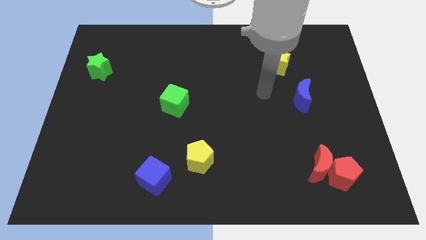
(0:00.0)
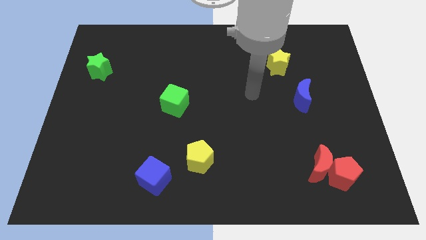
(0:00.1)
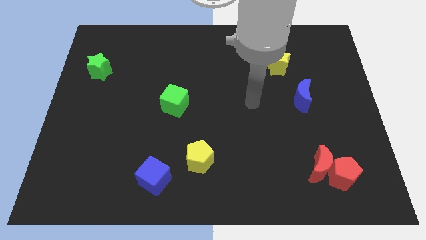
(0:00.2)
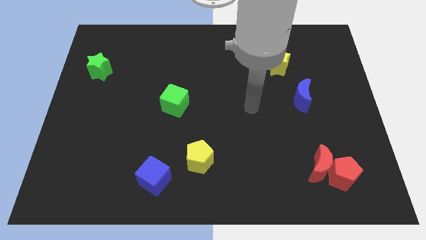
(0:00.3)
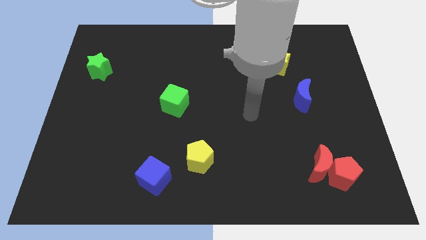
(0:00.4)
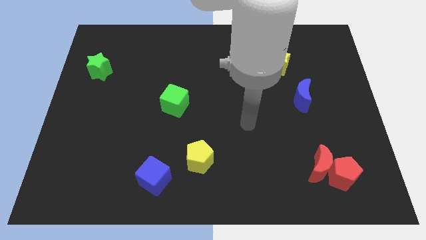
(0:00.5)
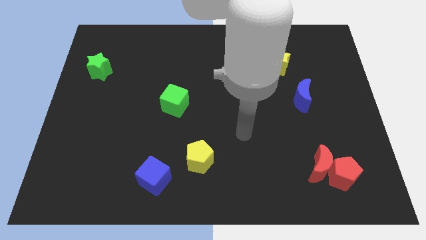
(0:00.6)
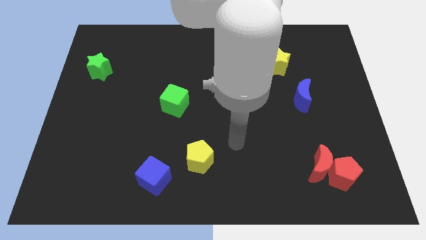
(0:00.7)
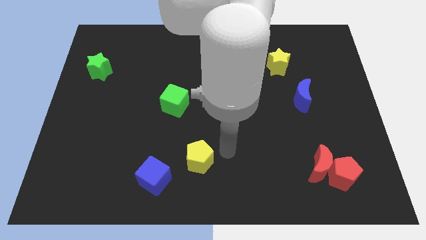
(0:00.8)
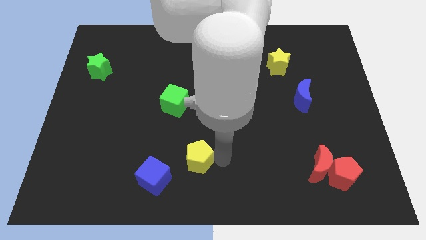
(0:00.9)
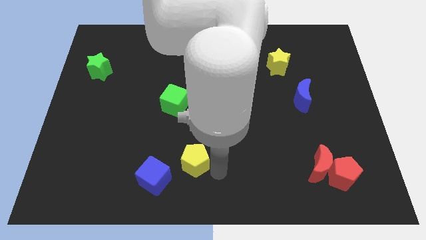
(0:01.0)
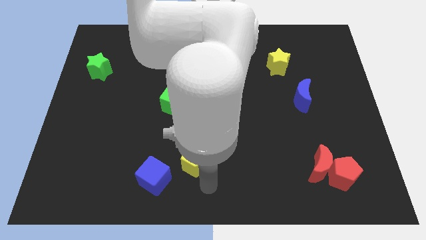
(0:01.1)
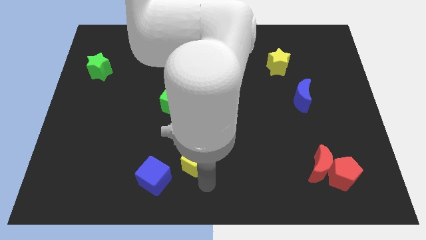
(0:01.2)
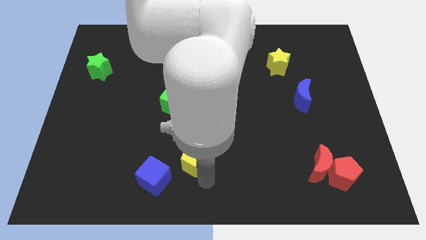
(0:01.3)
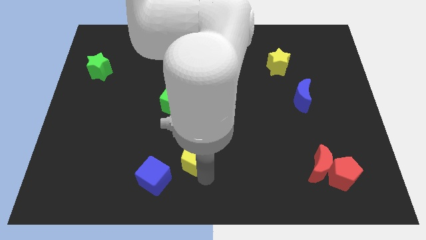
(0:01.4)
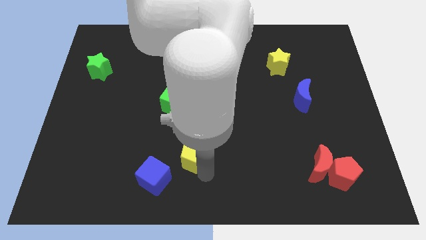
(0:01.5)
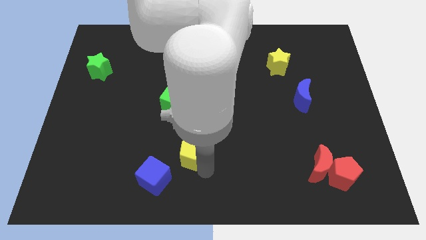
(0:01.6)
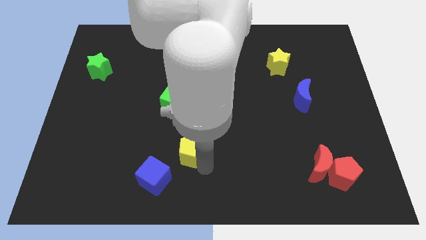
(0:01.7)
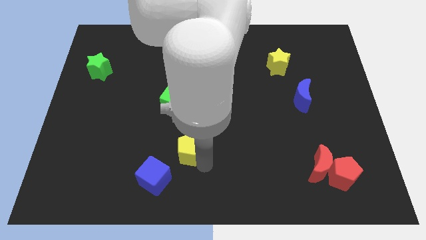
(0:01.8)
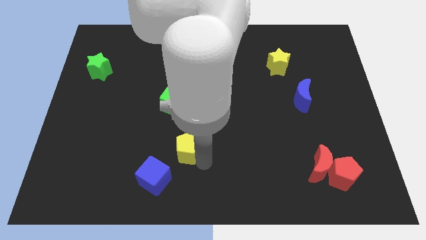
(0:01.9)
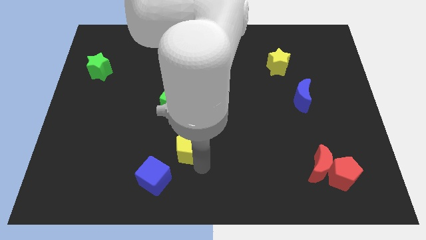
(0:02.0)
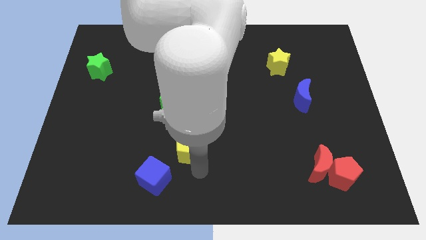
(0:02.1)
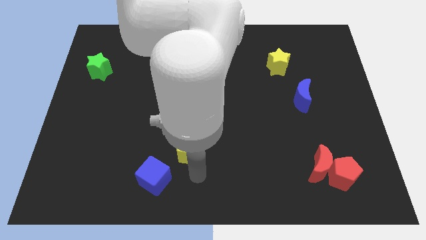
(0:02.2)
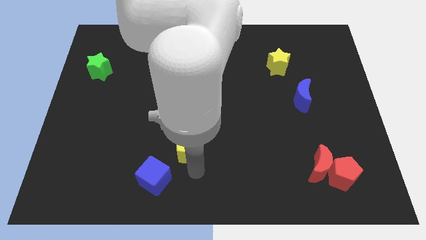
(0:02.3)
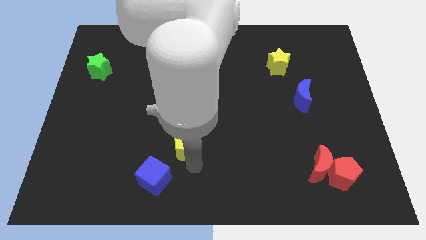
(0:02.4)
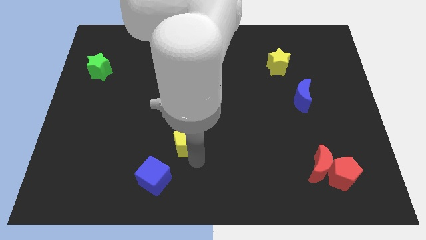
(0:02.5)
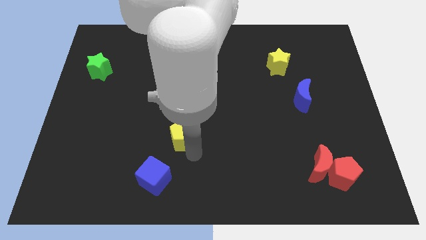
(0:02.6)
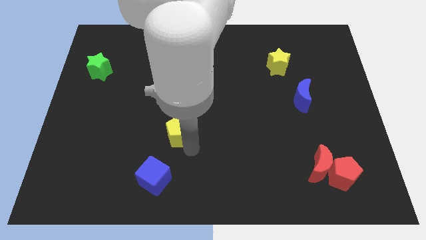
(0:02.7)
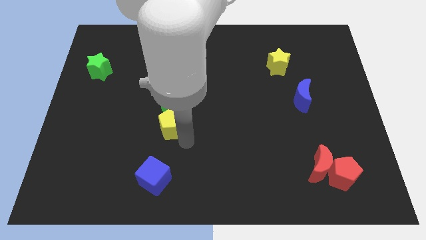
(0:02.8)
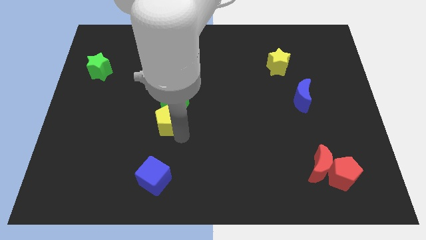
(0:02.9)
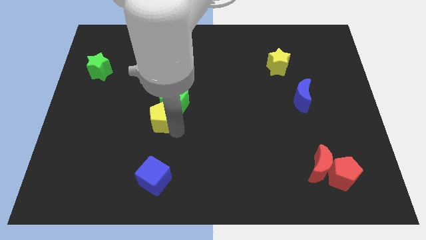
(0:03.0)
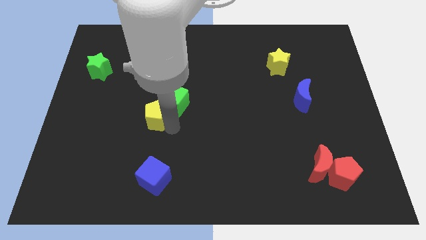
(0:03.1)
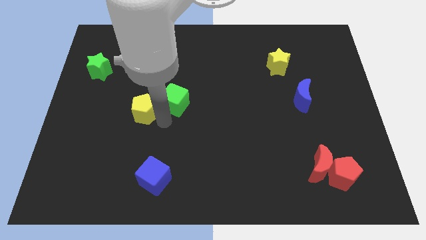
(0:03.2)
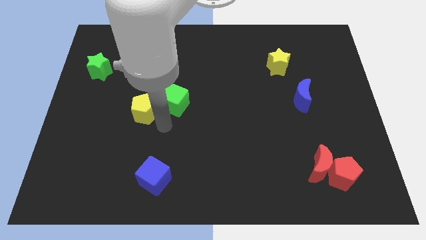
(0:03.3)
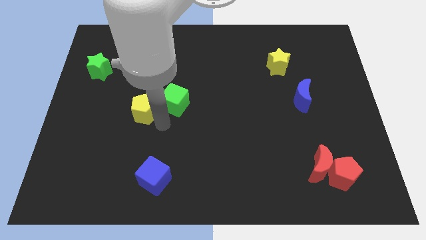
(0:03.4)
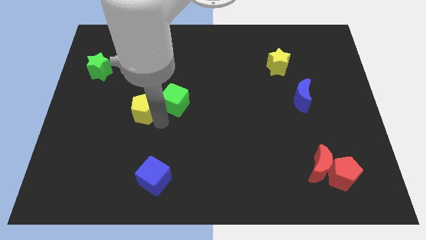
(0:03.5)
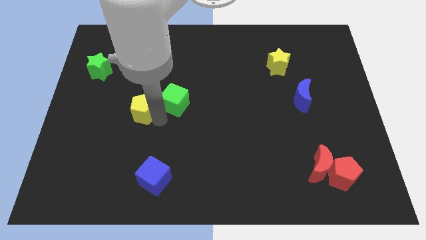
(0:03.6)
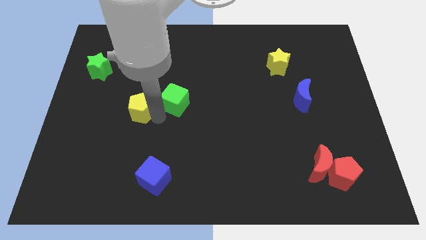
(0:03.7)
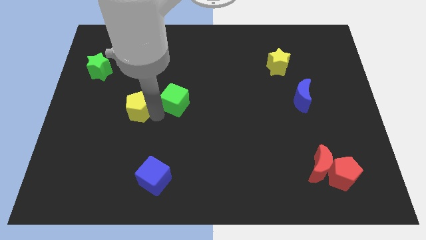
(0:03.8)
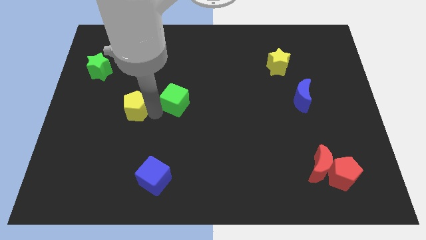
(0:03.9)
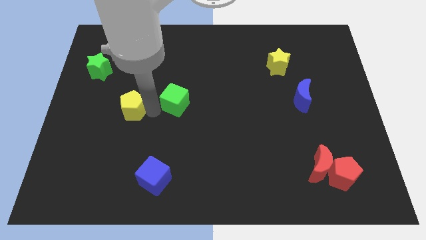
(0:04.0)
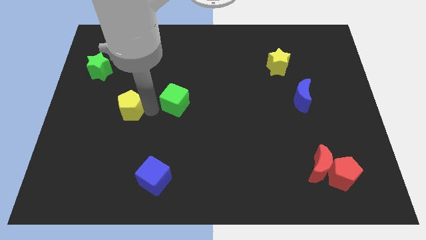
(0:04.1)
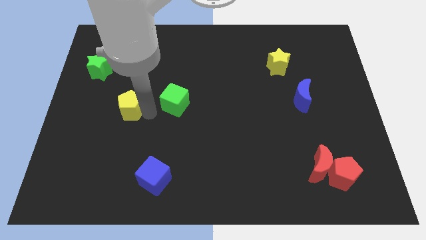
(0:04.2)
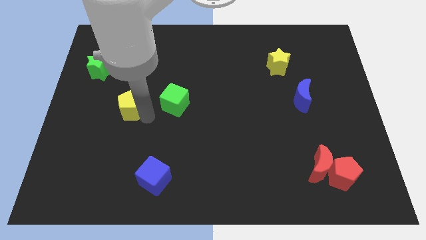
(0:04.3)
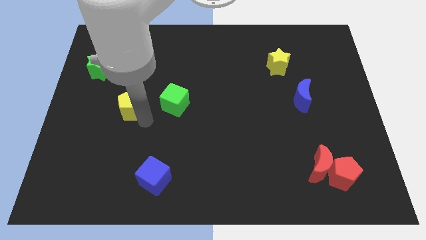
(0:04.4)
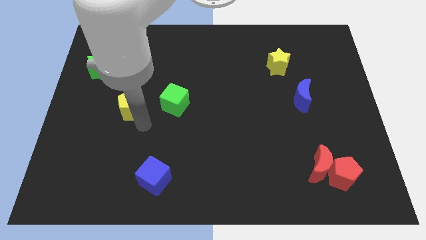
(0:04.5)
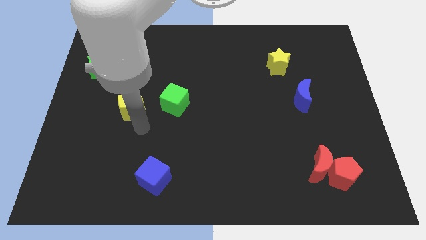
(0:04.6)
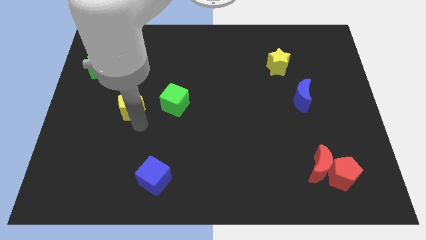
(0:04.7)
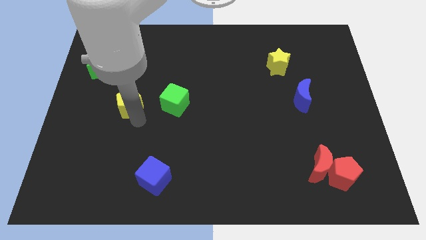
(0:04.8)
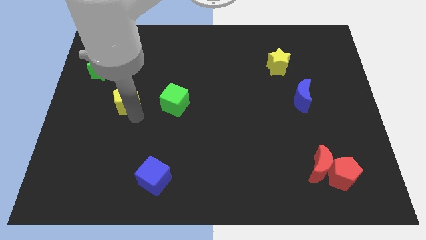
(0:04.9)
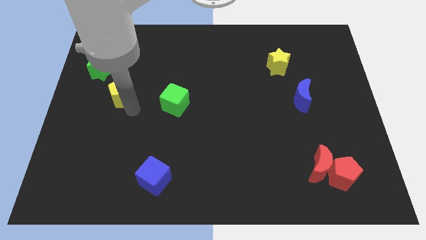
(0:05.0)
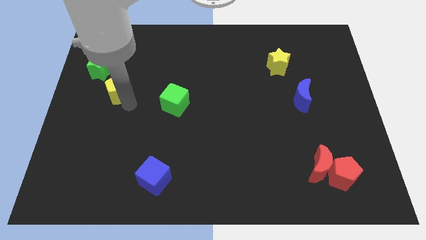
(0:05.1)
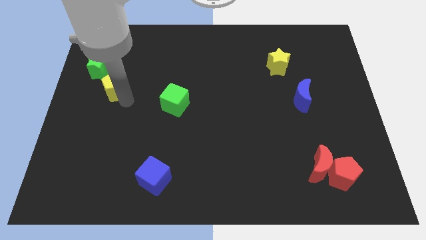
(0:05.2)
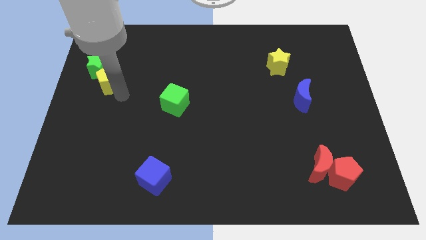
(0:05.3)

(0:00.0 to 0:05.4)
move the yellow pentagon towards the green star

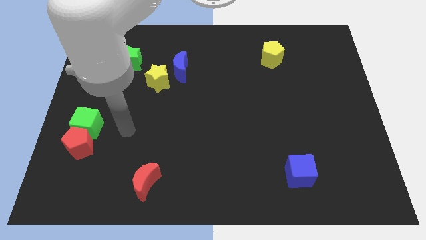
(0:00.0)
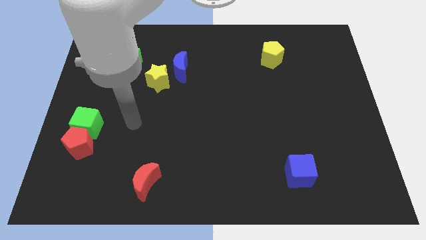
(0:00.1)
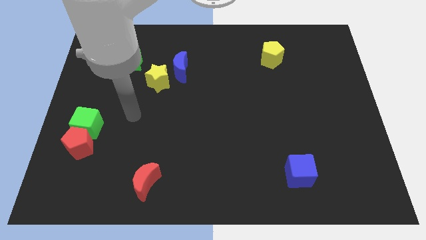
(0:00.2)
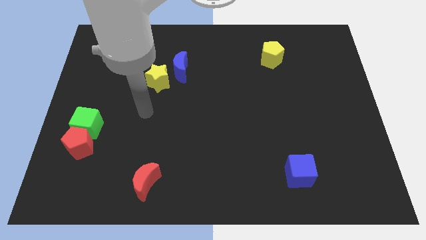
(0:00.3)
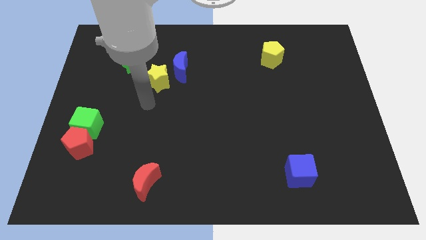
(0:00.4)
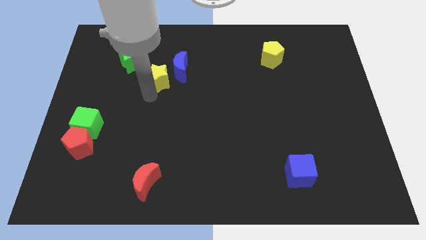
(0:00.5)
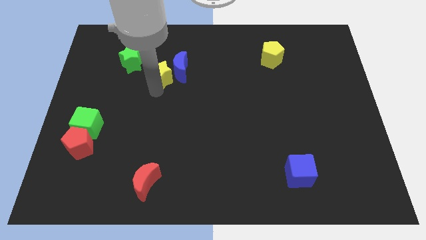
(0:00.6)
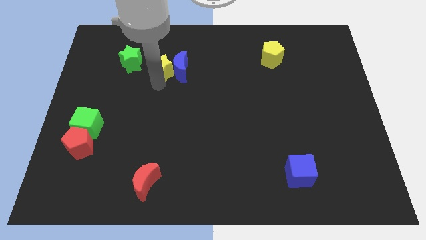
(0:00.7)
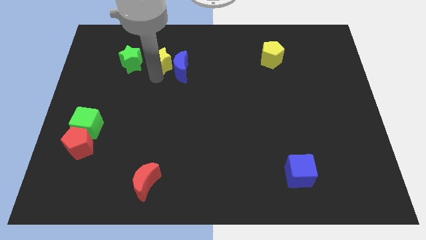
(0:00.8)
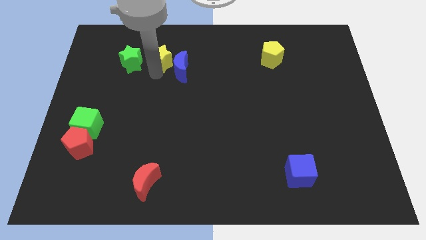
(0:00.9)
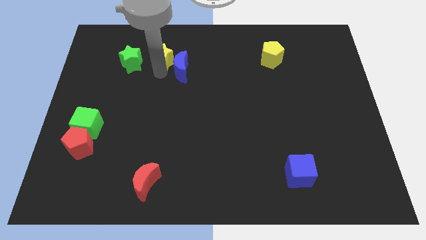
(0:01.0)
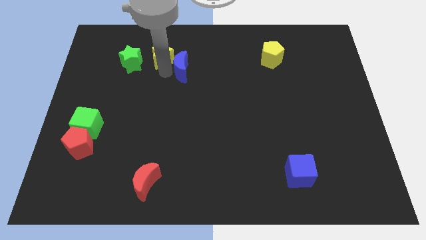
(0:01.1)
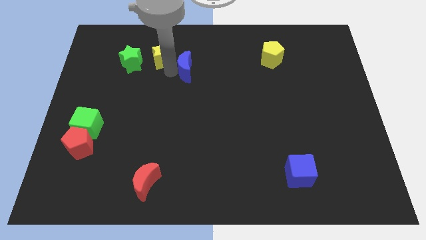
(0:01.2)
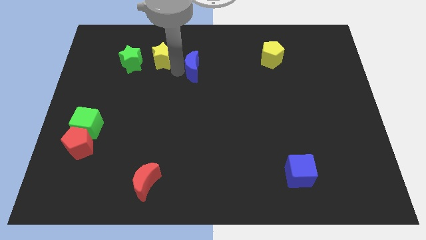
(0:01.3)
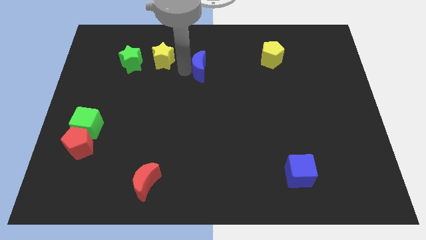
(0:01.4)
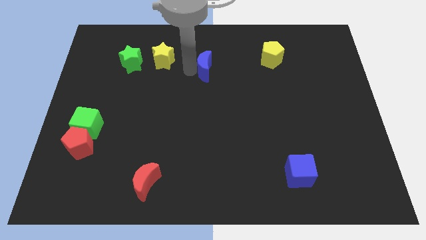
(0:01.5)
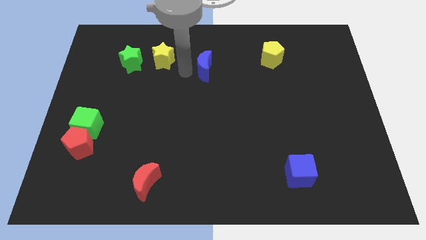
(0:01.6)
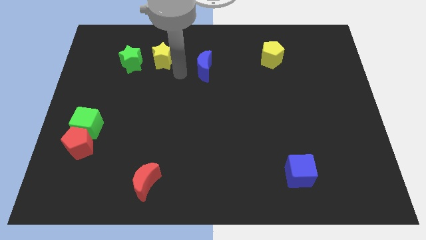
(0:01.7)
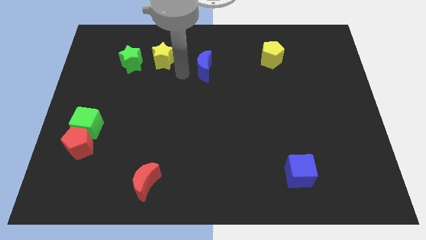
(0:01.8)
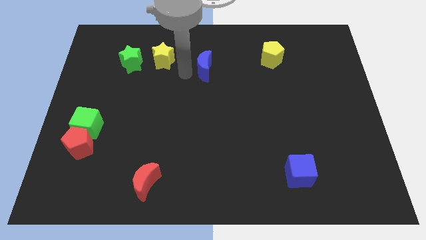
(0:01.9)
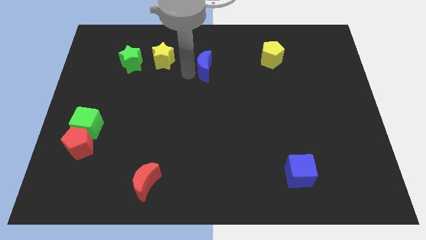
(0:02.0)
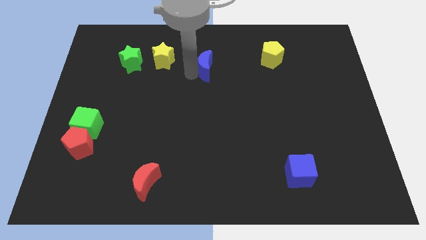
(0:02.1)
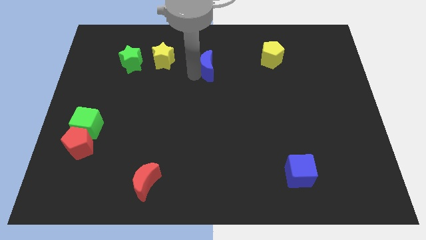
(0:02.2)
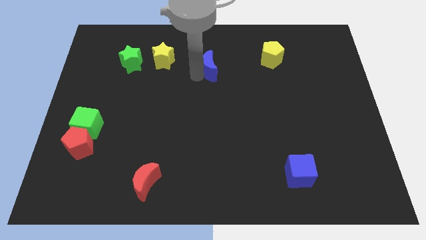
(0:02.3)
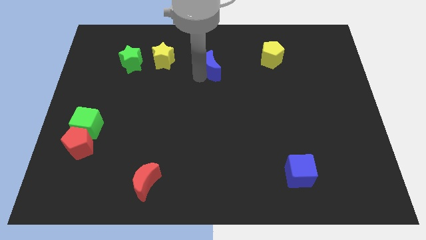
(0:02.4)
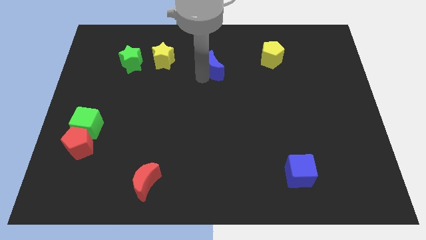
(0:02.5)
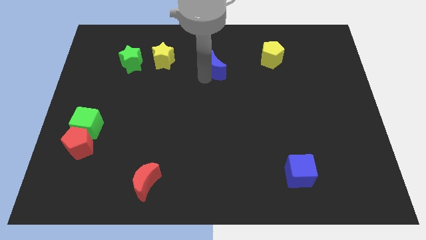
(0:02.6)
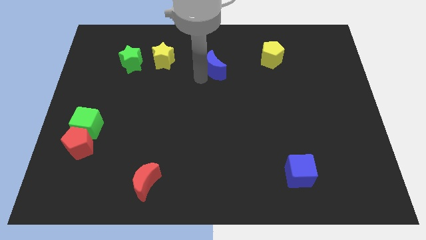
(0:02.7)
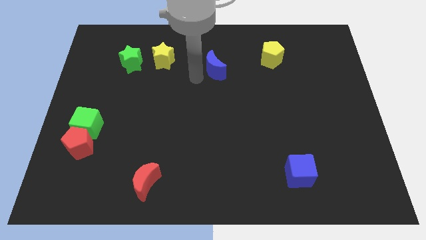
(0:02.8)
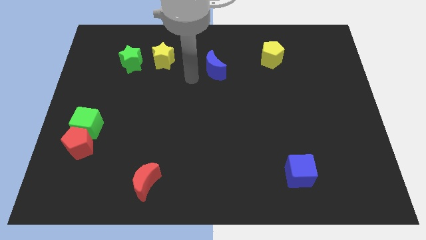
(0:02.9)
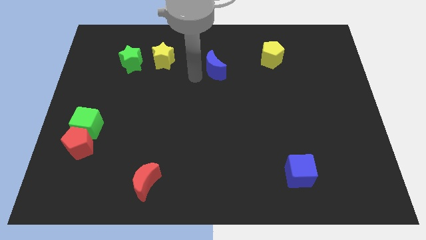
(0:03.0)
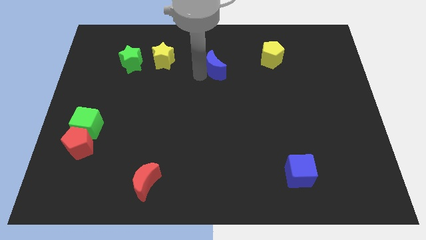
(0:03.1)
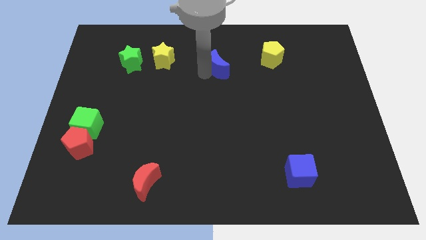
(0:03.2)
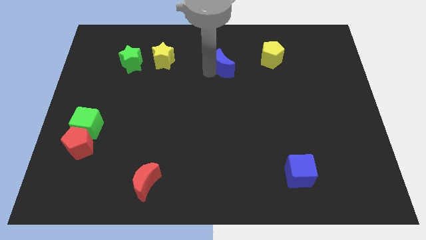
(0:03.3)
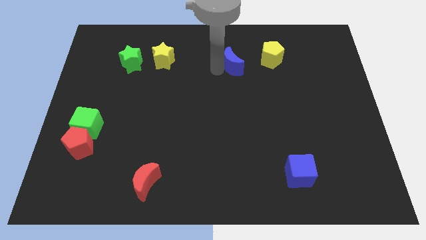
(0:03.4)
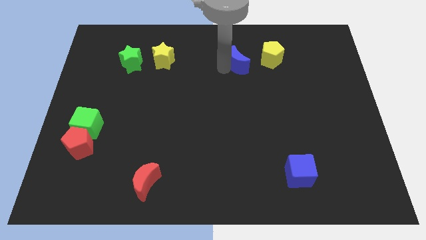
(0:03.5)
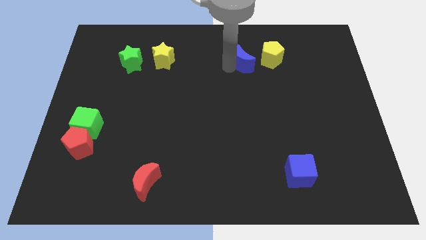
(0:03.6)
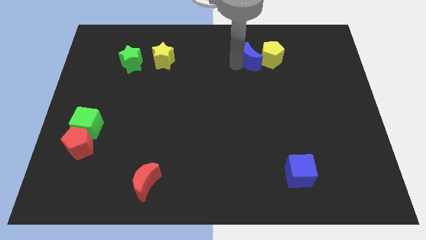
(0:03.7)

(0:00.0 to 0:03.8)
put the blue moon close to the yellow pentagon
